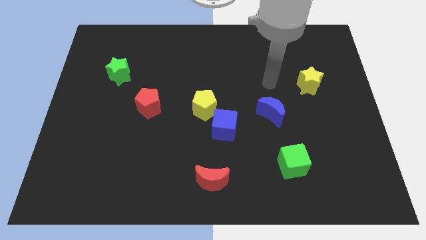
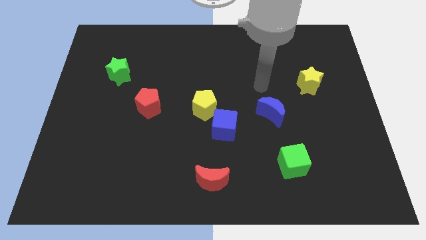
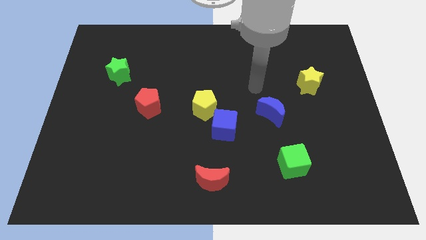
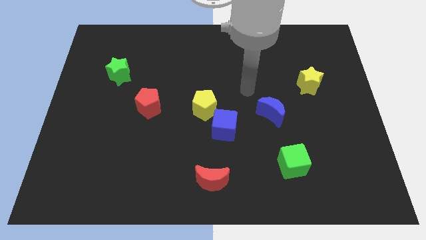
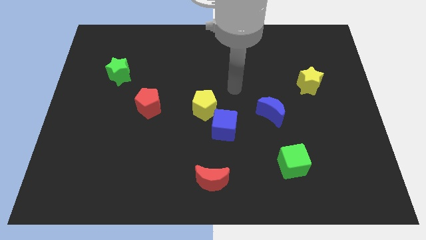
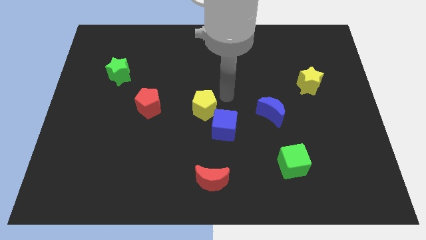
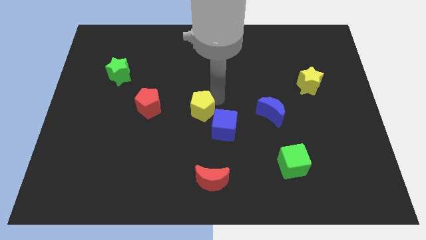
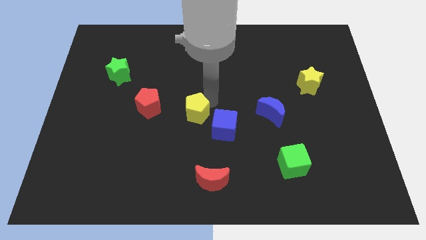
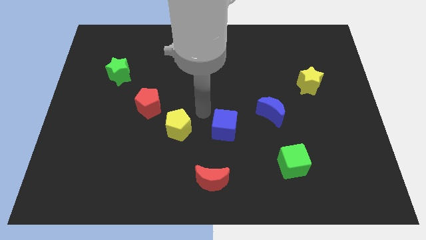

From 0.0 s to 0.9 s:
separate the blue cube from the yellow pentagon

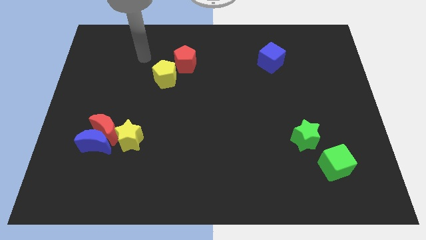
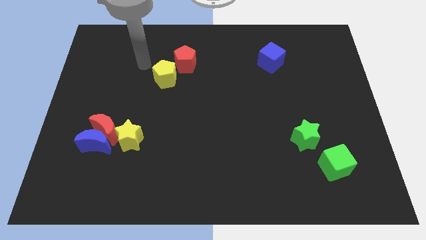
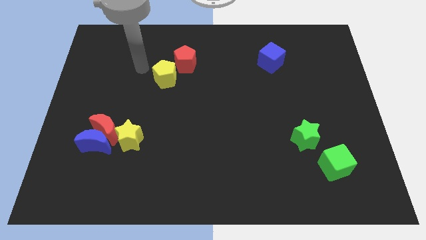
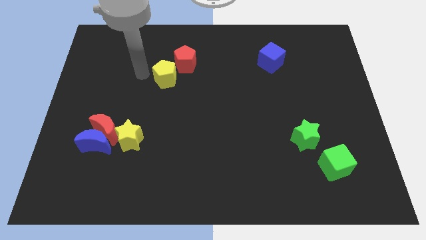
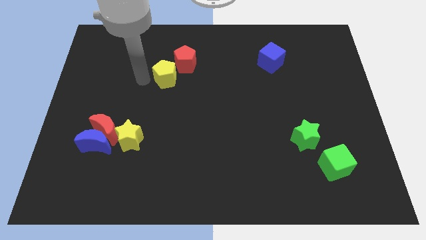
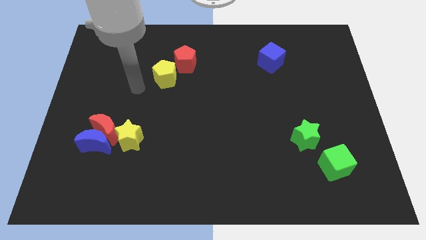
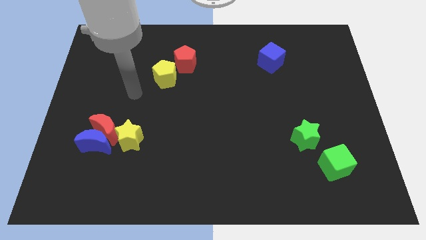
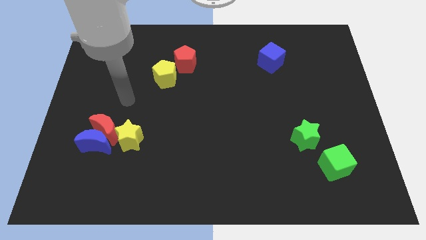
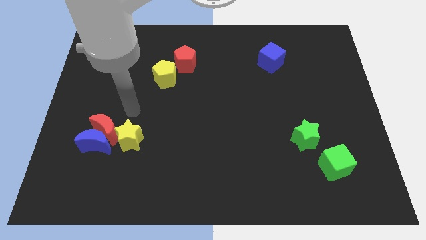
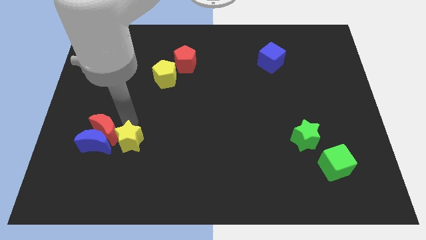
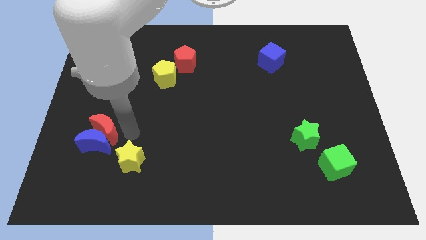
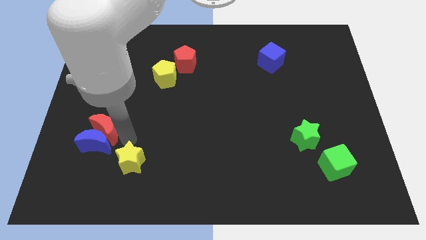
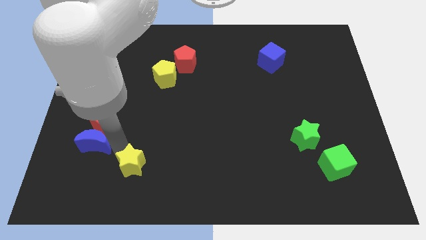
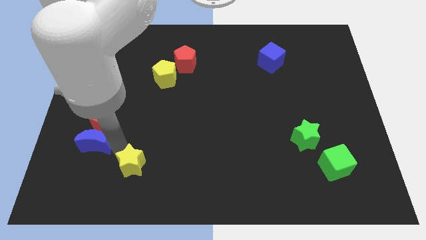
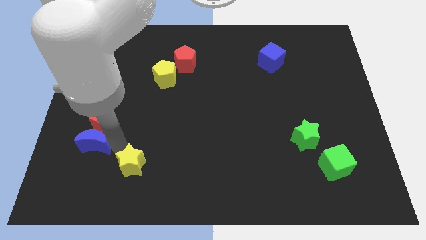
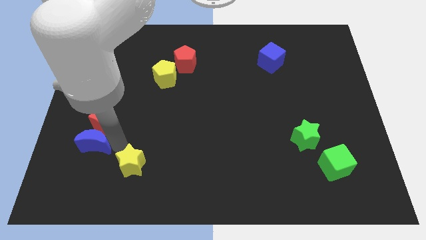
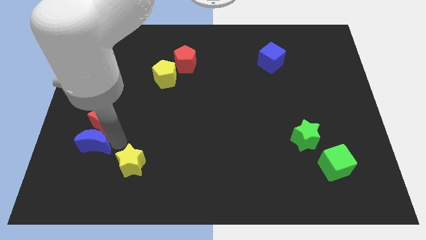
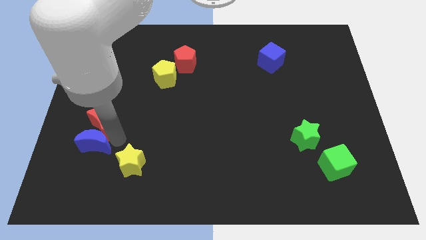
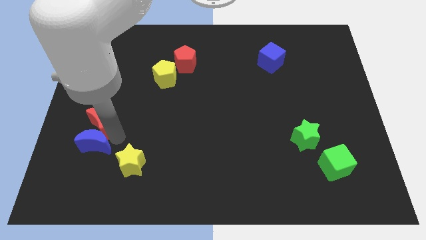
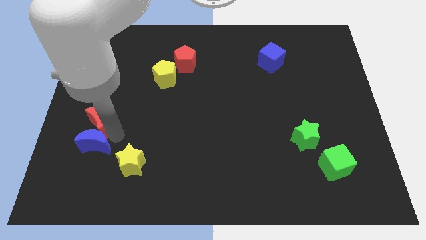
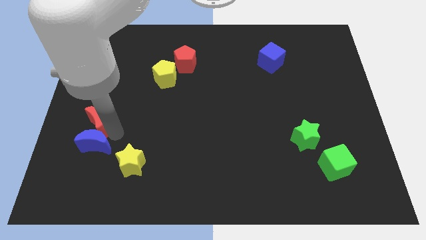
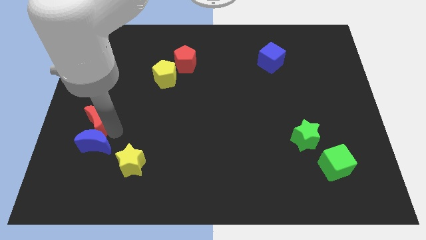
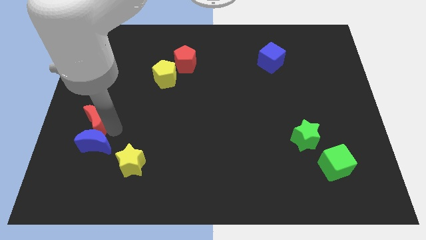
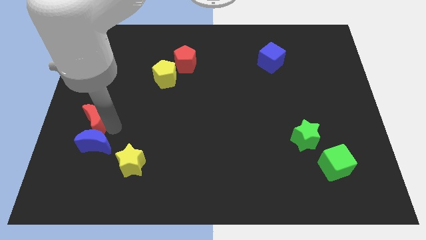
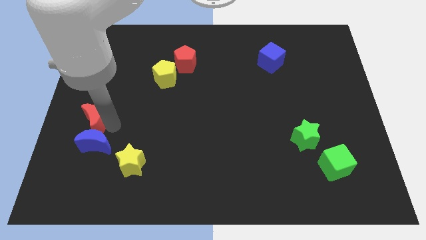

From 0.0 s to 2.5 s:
separate the red moon from the blue moon and yellow star

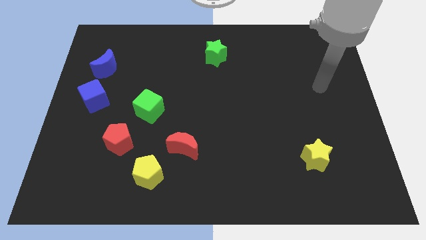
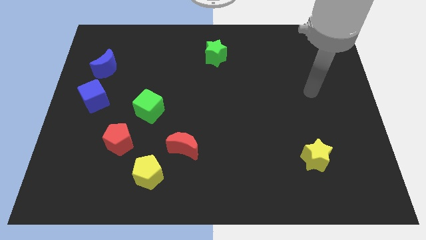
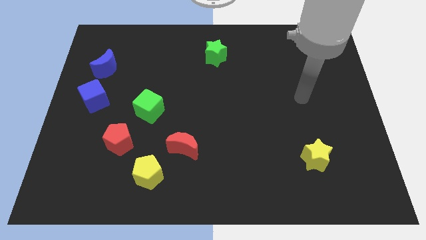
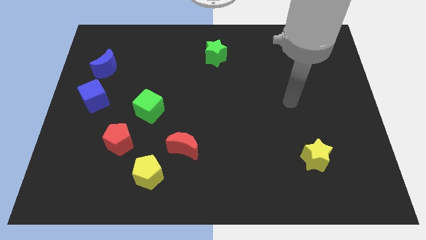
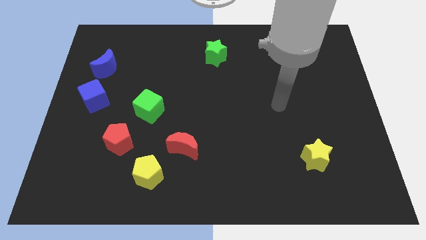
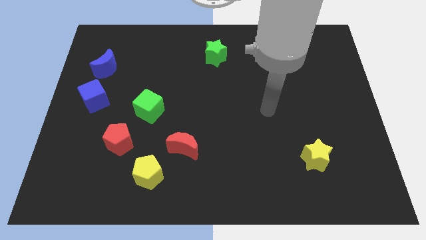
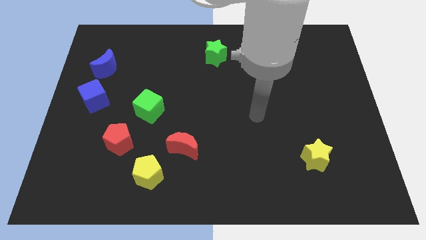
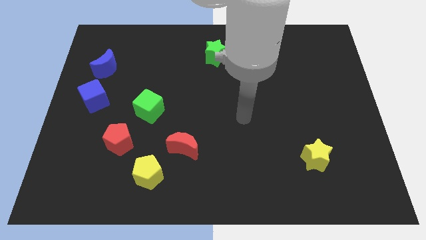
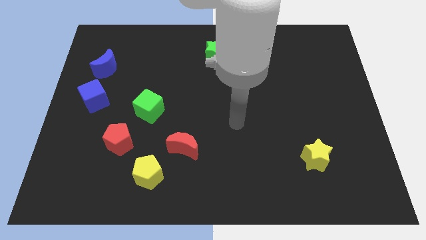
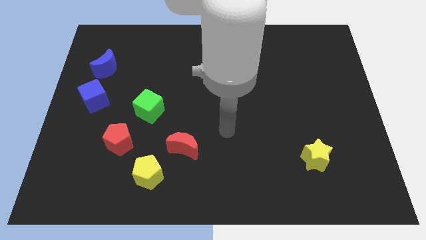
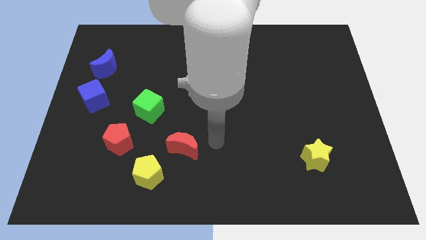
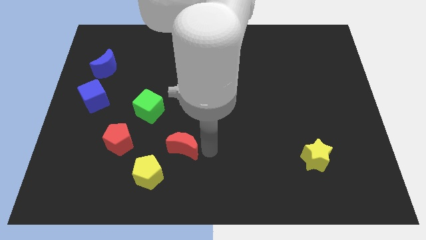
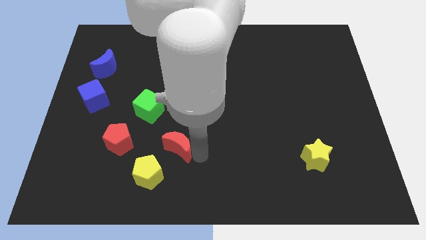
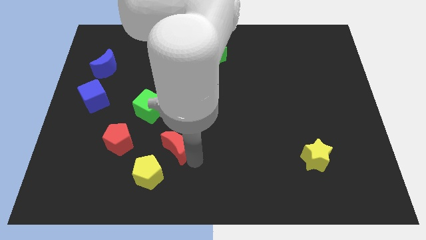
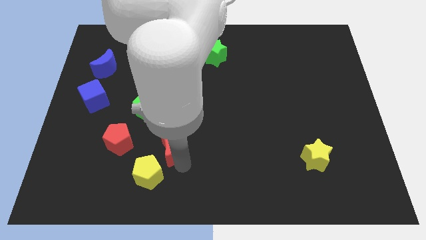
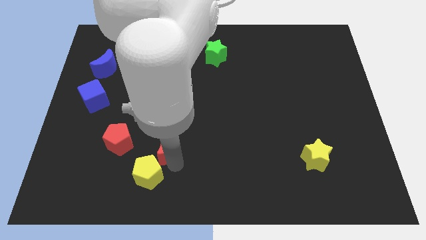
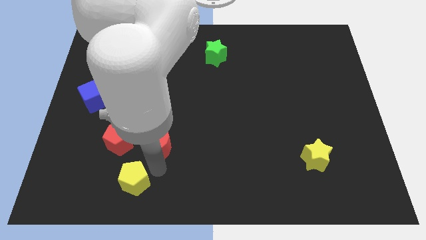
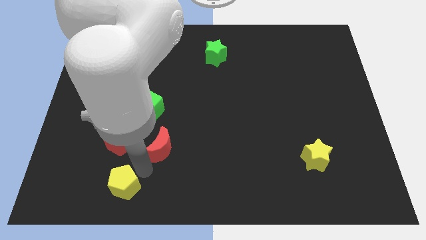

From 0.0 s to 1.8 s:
pull the red moon apart from the yellow pentagon

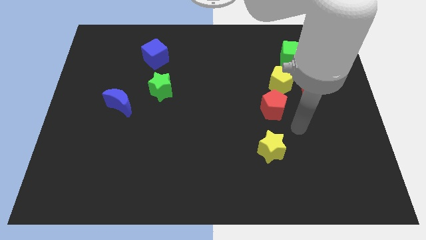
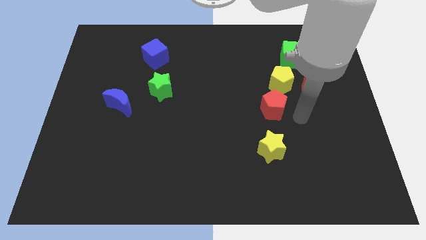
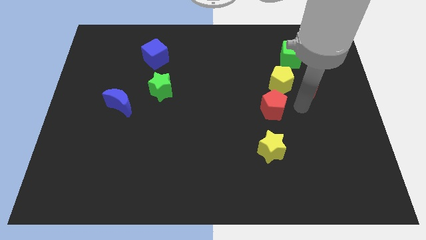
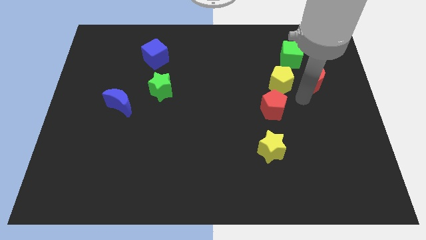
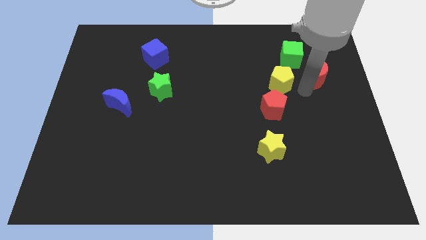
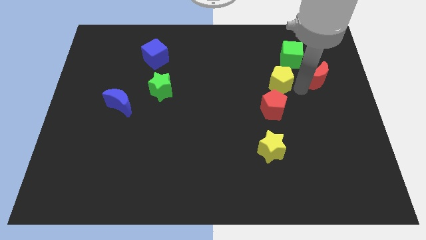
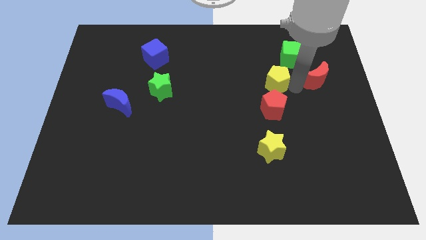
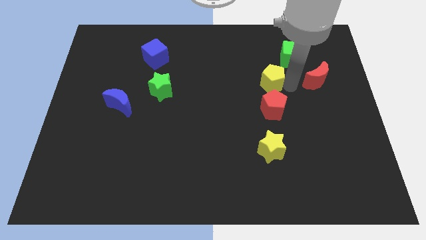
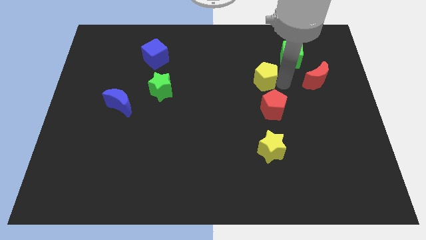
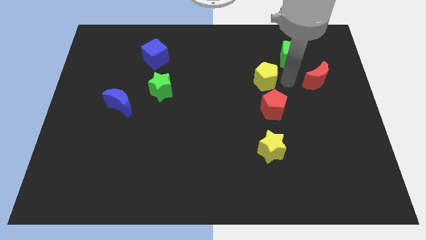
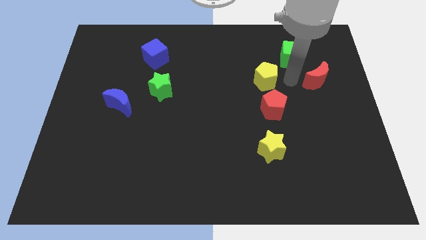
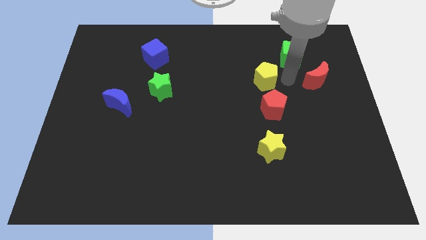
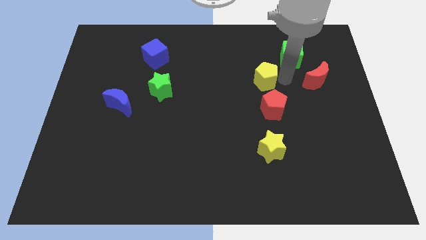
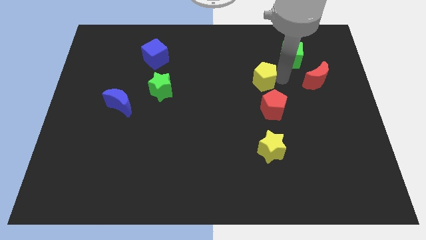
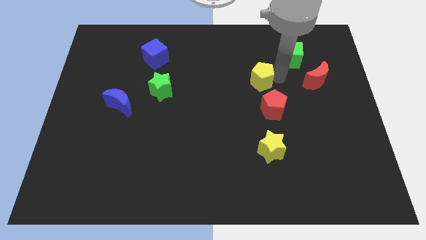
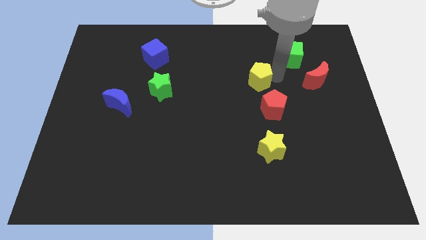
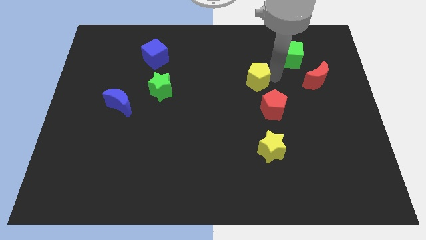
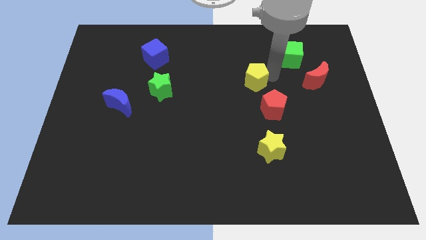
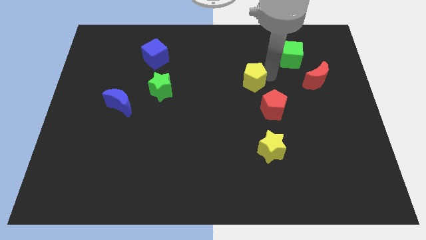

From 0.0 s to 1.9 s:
pull the yellow pentagon apart from the clump

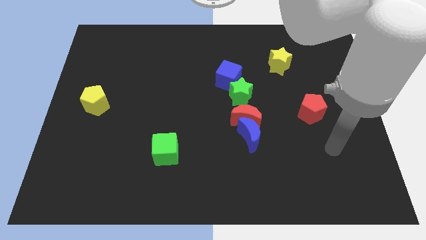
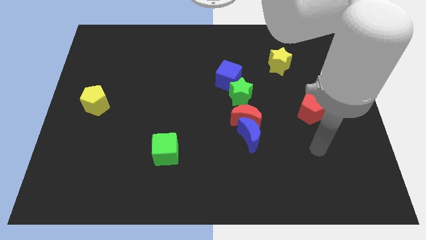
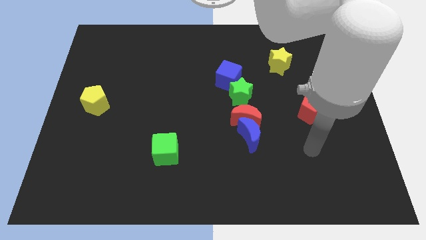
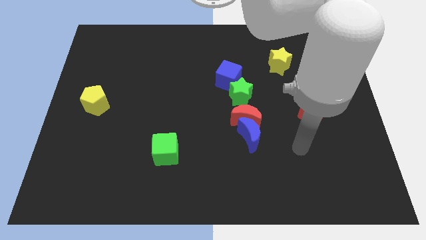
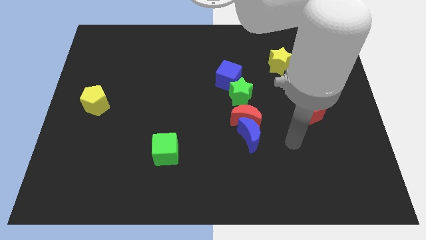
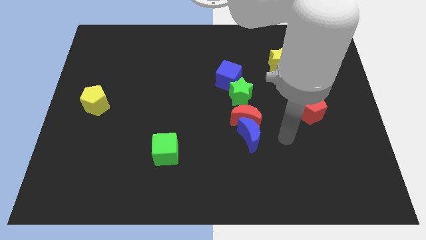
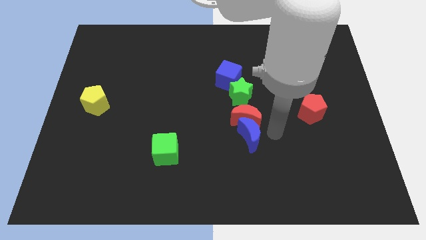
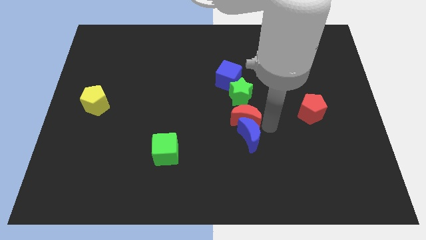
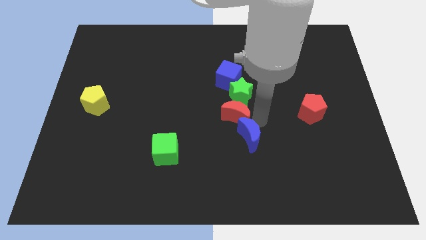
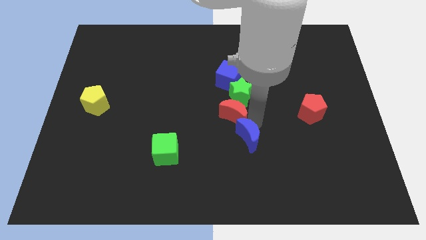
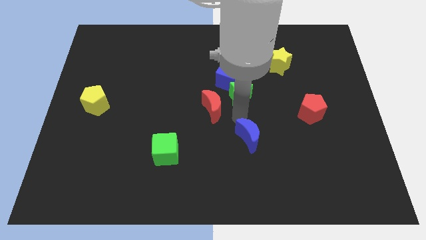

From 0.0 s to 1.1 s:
move the blue moon away from the red moon

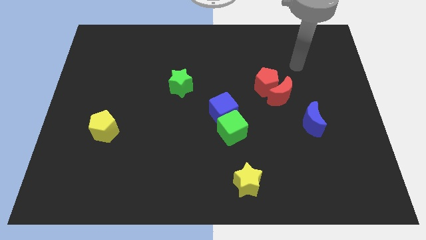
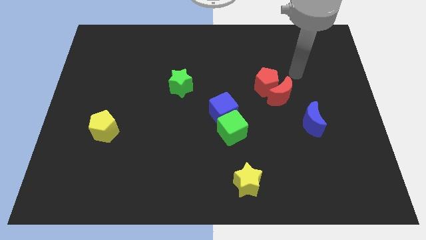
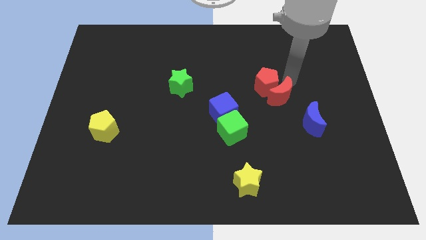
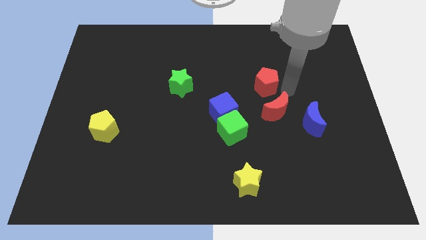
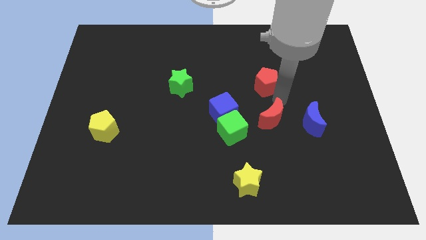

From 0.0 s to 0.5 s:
separate the red pentagon from the red moon

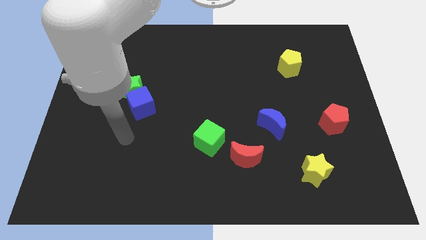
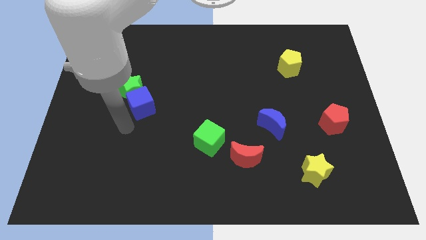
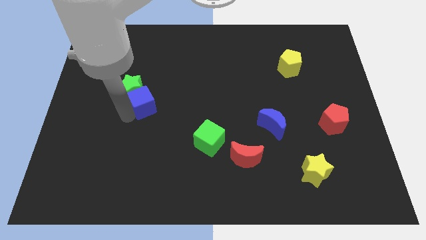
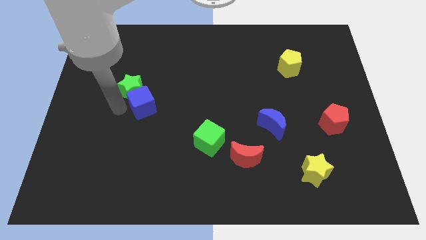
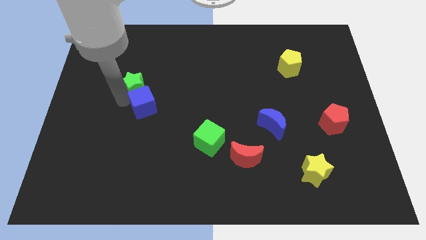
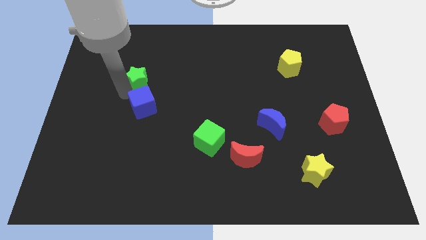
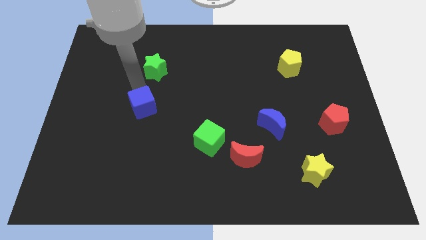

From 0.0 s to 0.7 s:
move the blue cube away from the green star
